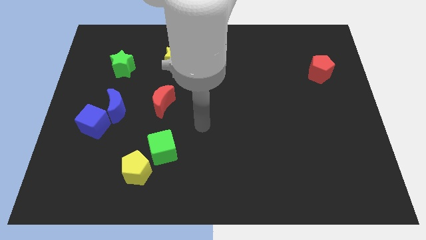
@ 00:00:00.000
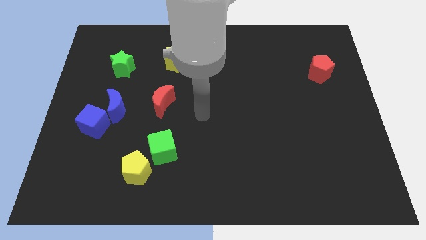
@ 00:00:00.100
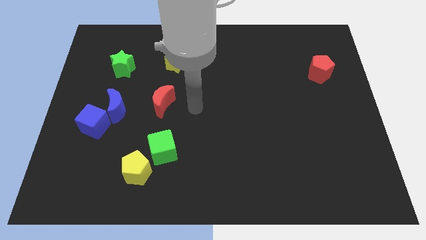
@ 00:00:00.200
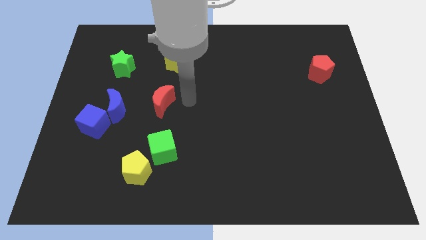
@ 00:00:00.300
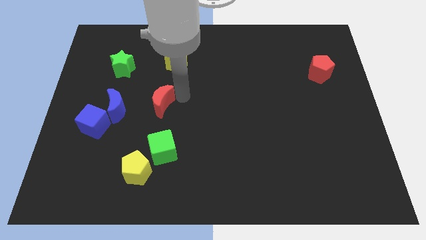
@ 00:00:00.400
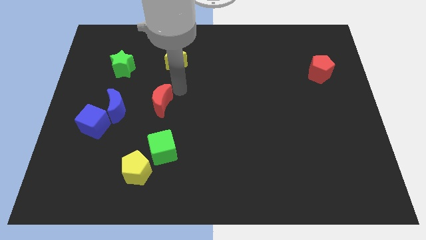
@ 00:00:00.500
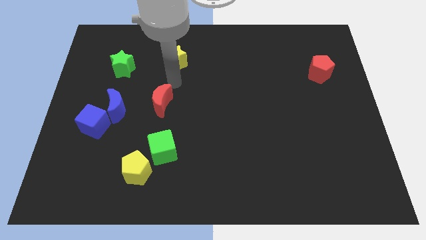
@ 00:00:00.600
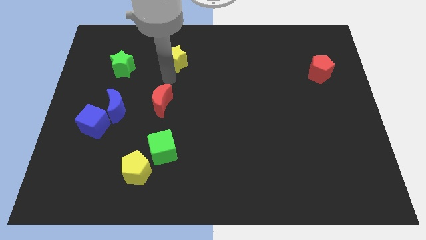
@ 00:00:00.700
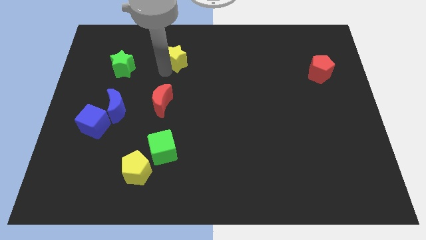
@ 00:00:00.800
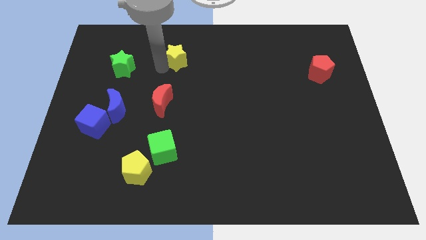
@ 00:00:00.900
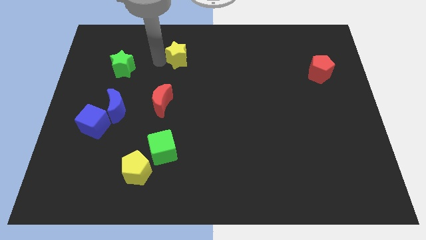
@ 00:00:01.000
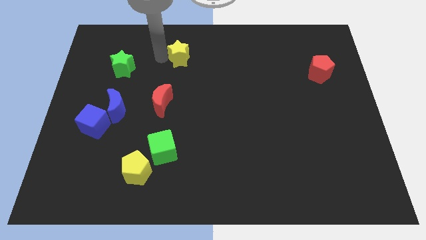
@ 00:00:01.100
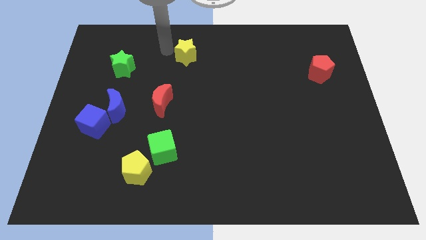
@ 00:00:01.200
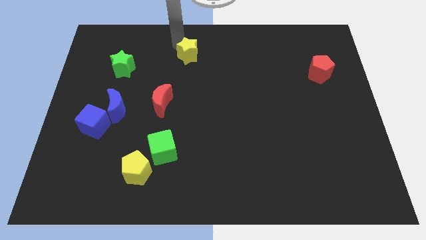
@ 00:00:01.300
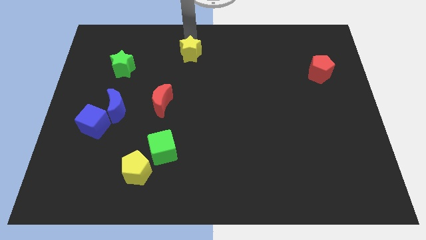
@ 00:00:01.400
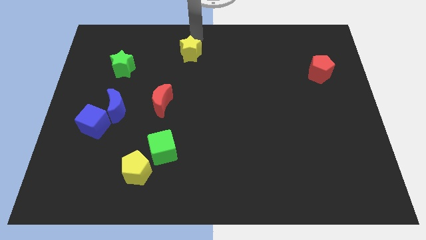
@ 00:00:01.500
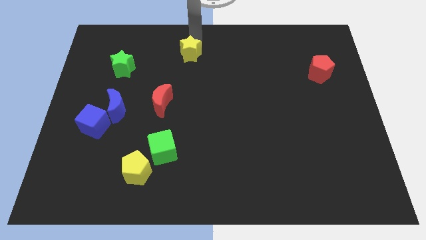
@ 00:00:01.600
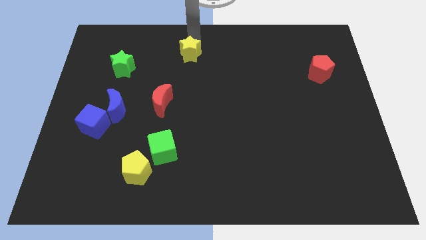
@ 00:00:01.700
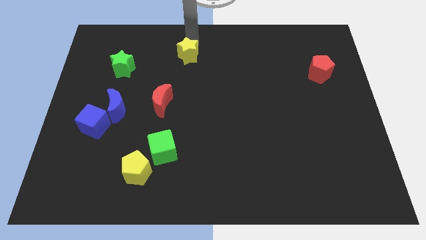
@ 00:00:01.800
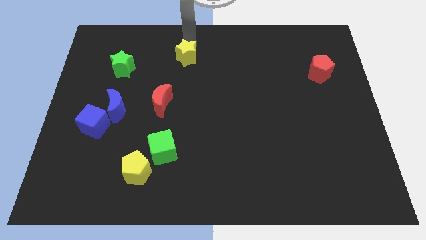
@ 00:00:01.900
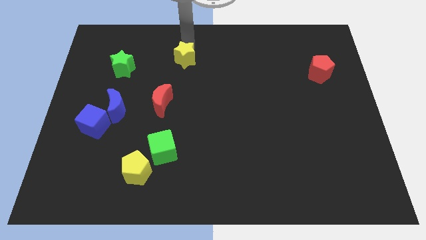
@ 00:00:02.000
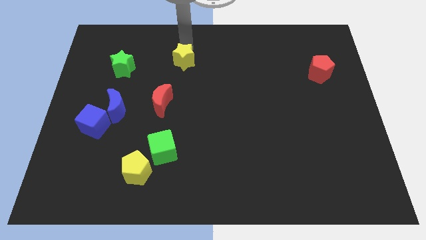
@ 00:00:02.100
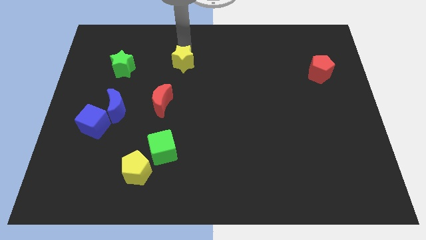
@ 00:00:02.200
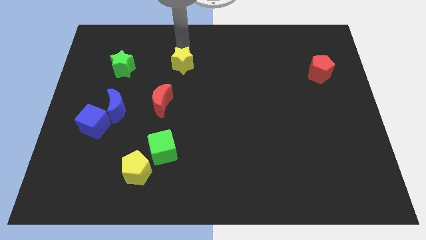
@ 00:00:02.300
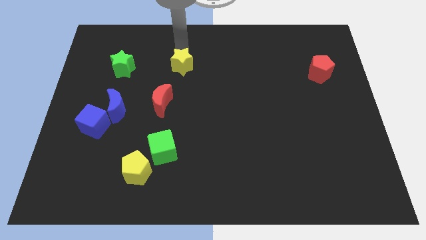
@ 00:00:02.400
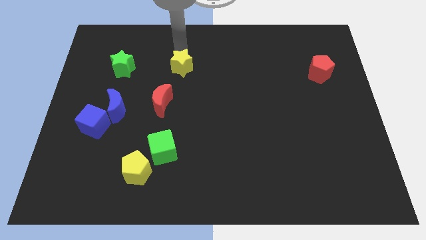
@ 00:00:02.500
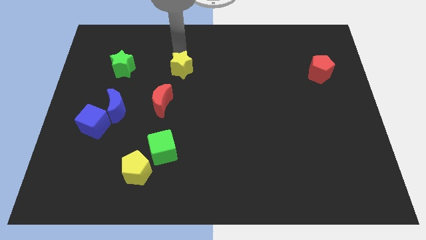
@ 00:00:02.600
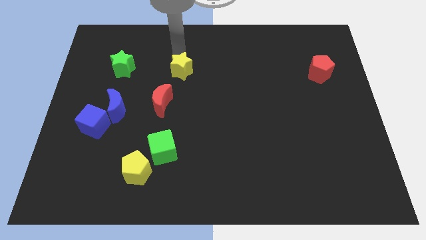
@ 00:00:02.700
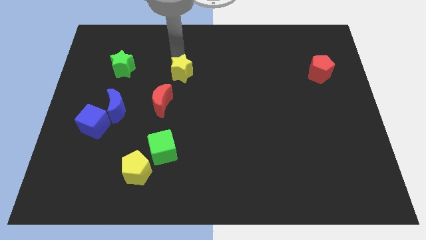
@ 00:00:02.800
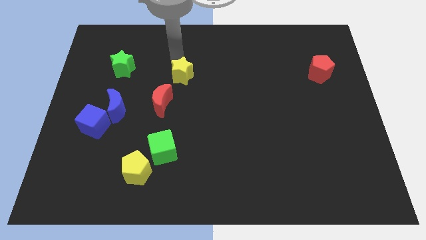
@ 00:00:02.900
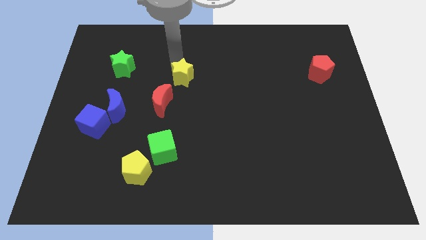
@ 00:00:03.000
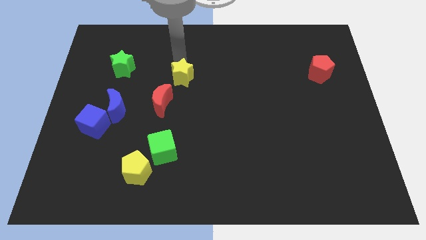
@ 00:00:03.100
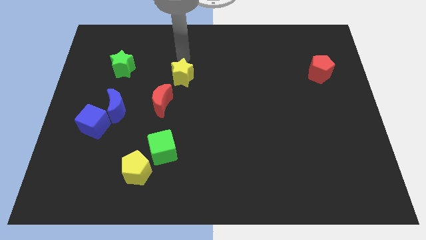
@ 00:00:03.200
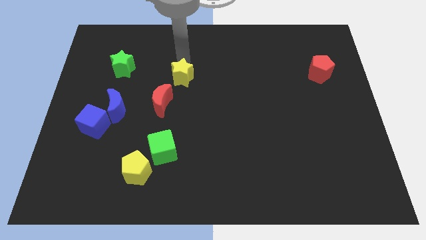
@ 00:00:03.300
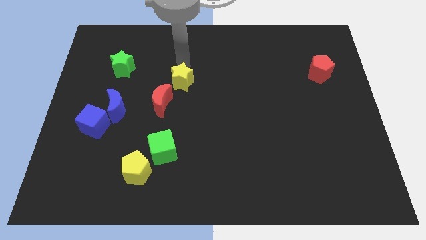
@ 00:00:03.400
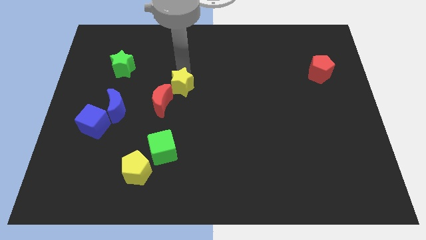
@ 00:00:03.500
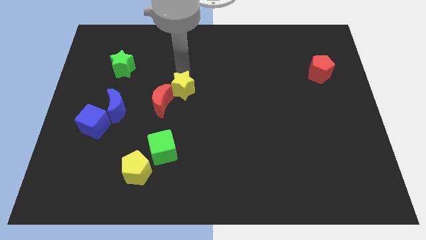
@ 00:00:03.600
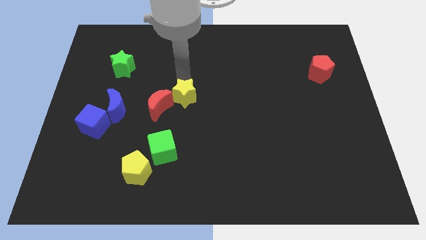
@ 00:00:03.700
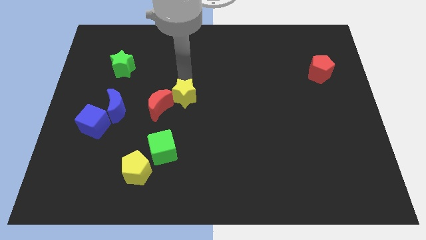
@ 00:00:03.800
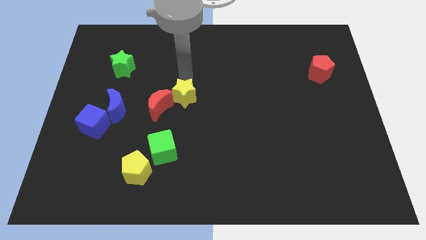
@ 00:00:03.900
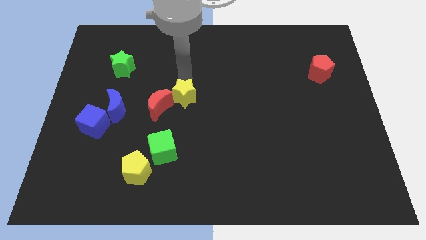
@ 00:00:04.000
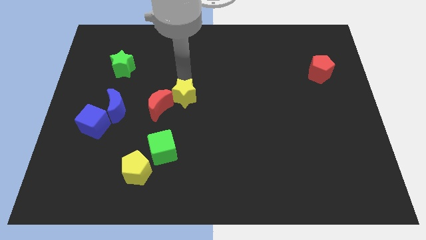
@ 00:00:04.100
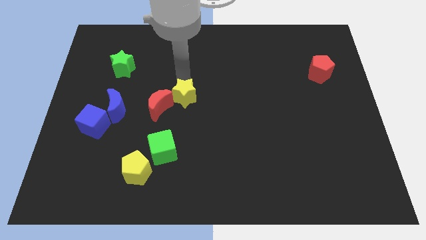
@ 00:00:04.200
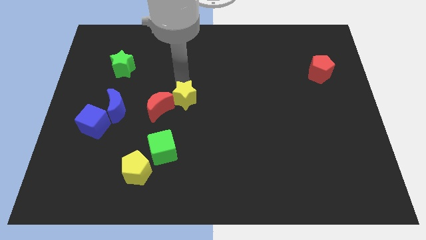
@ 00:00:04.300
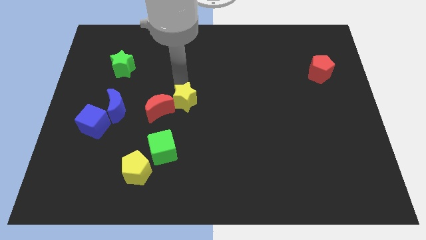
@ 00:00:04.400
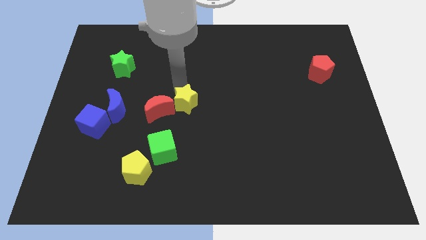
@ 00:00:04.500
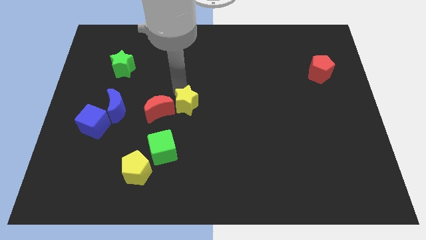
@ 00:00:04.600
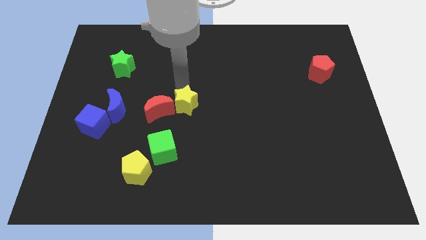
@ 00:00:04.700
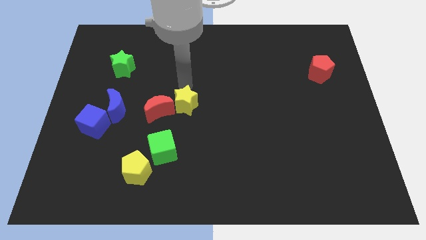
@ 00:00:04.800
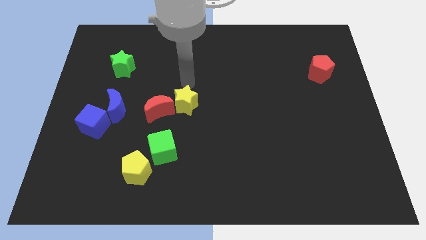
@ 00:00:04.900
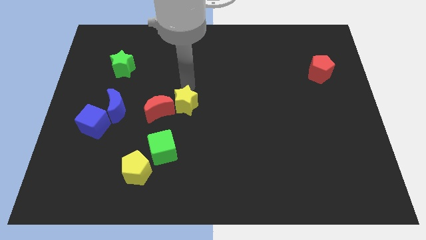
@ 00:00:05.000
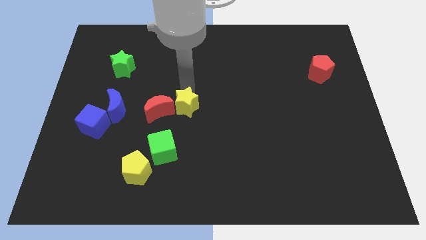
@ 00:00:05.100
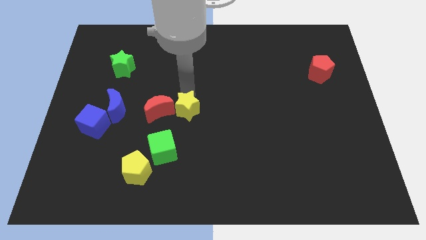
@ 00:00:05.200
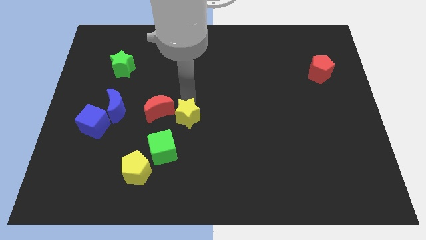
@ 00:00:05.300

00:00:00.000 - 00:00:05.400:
push the yellow star to the top right side of the green cube

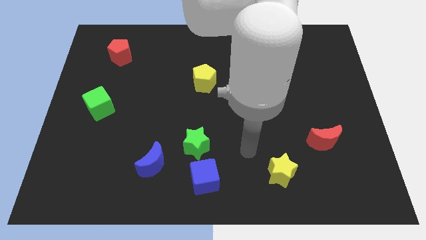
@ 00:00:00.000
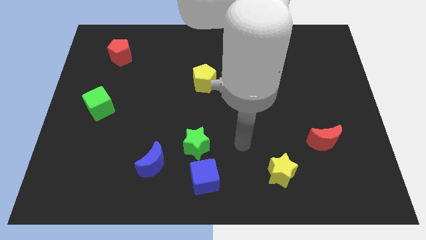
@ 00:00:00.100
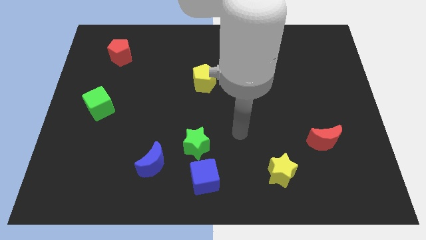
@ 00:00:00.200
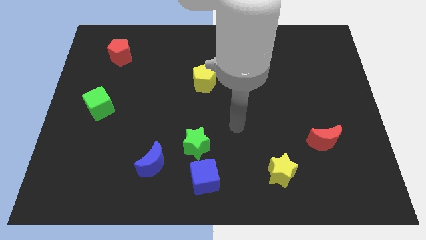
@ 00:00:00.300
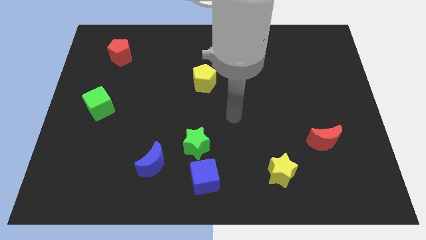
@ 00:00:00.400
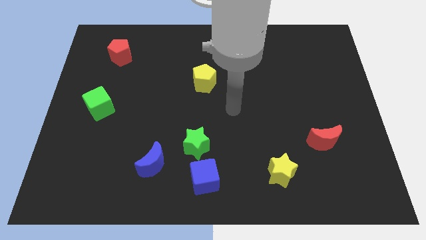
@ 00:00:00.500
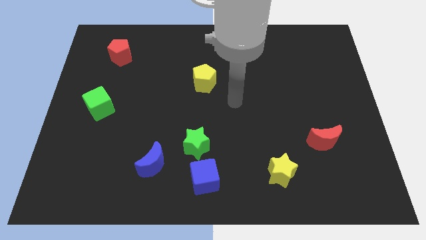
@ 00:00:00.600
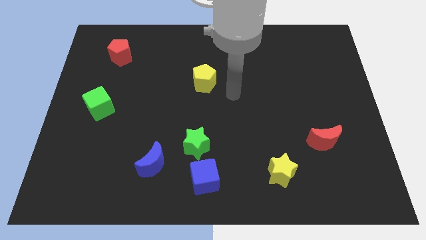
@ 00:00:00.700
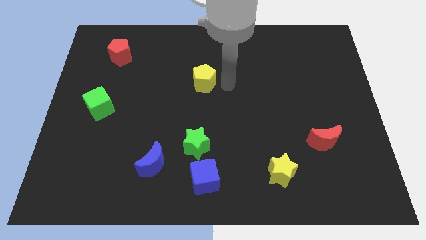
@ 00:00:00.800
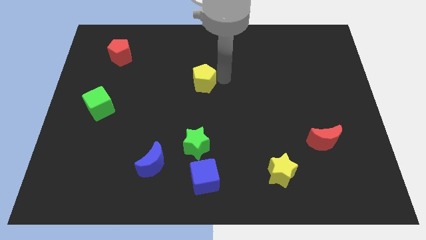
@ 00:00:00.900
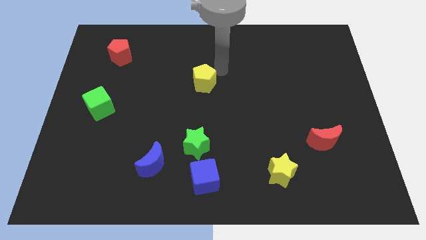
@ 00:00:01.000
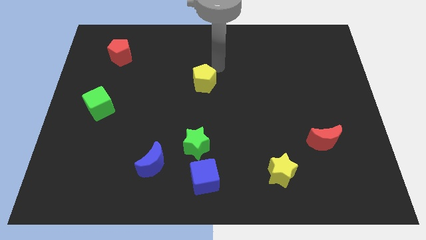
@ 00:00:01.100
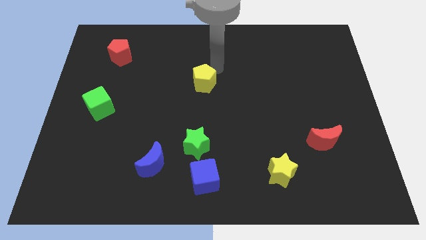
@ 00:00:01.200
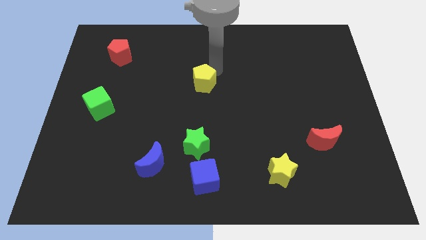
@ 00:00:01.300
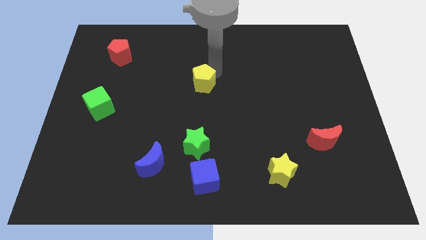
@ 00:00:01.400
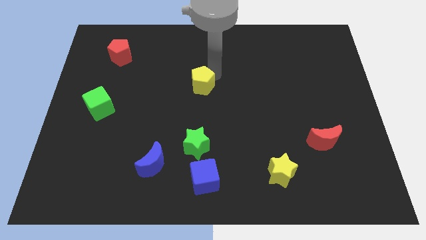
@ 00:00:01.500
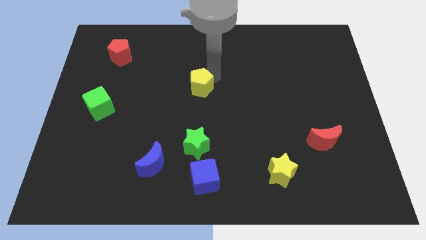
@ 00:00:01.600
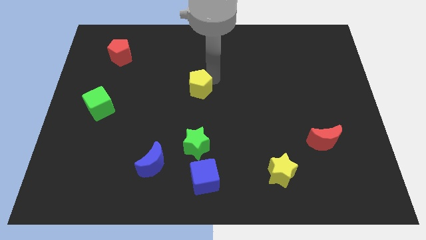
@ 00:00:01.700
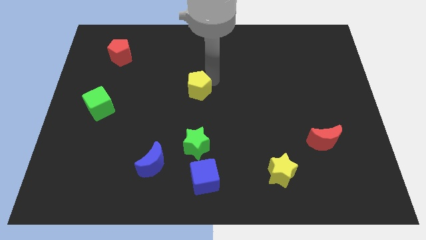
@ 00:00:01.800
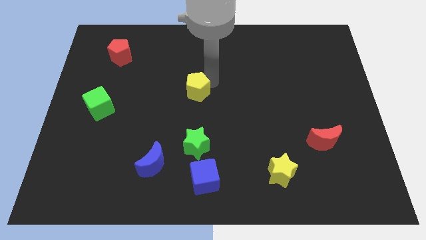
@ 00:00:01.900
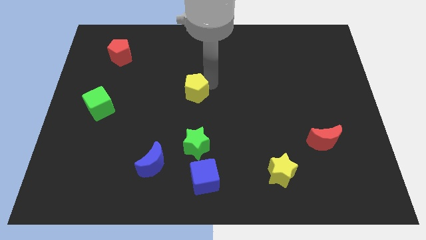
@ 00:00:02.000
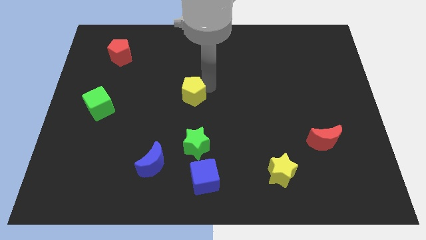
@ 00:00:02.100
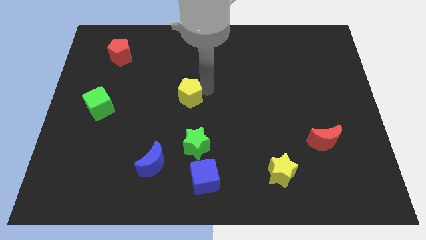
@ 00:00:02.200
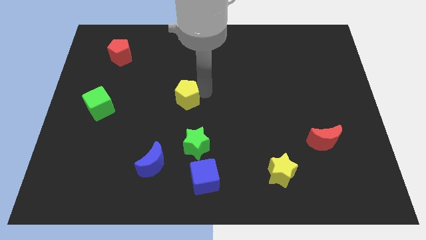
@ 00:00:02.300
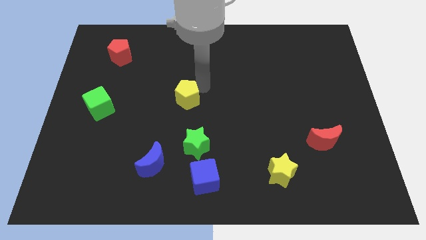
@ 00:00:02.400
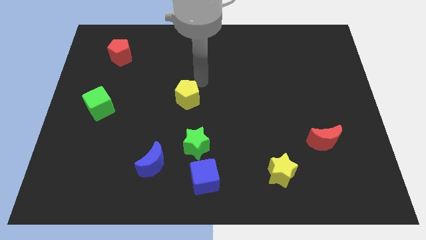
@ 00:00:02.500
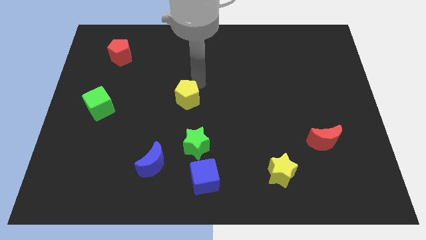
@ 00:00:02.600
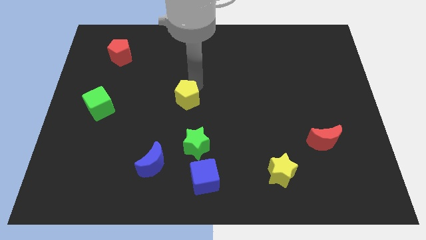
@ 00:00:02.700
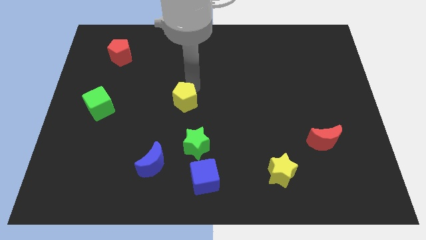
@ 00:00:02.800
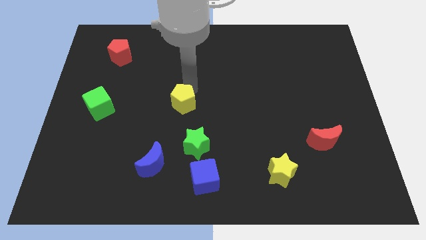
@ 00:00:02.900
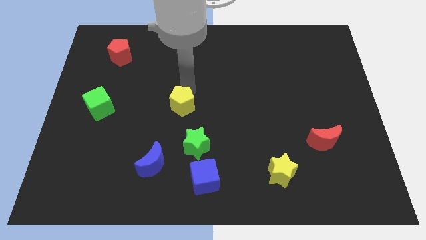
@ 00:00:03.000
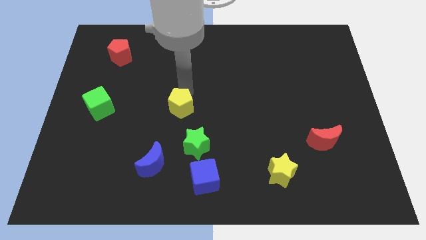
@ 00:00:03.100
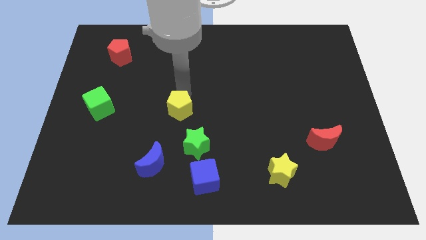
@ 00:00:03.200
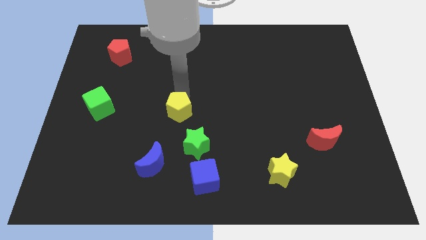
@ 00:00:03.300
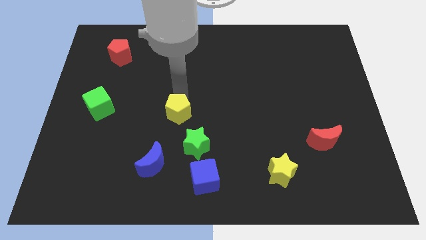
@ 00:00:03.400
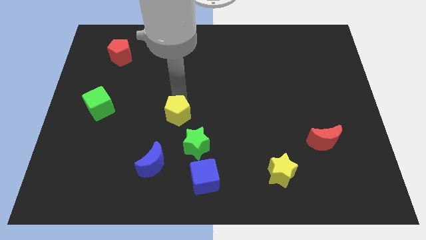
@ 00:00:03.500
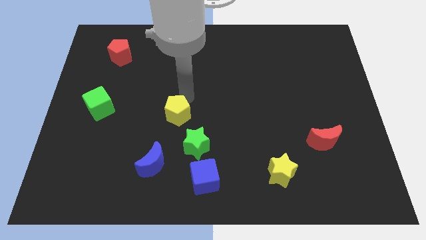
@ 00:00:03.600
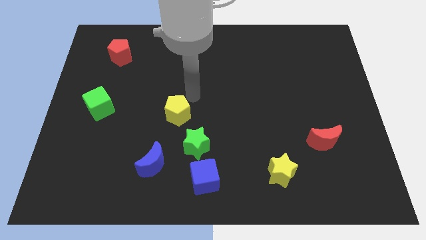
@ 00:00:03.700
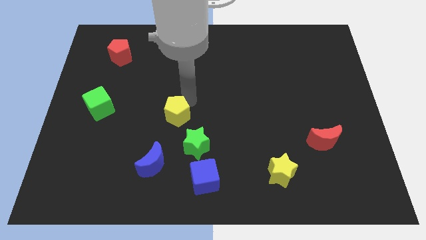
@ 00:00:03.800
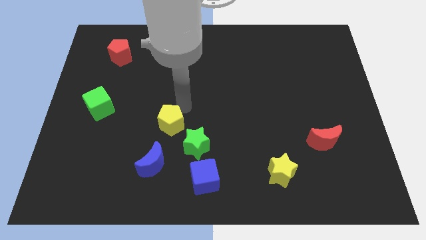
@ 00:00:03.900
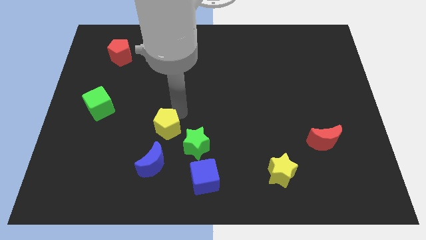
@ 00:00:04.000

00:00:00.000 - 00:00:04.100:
put the yellow pentagon to the left side of the green star
